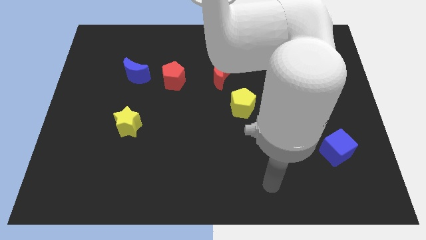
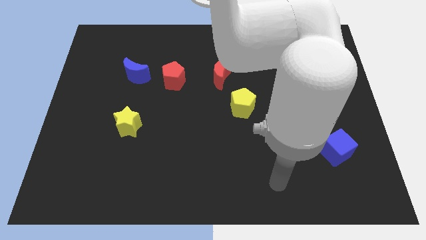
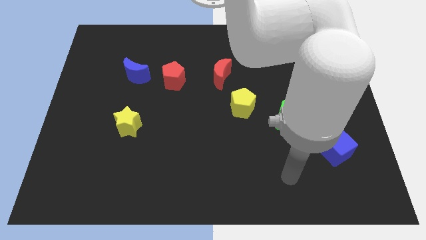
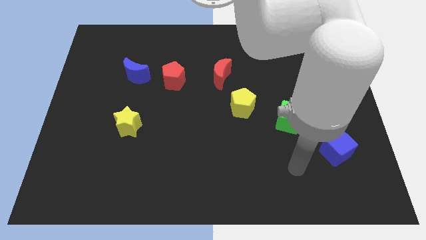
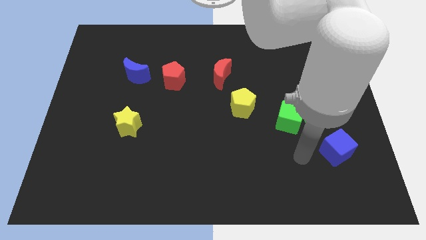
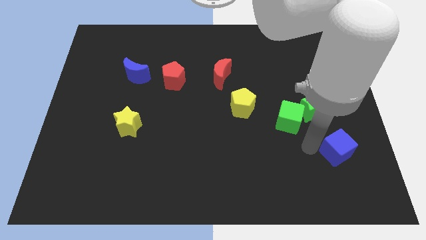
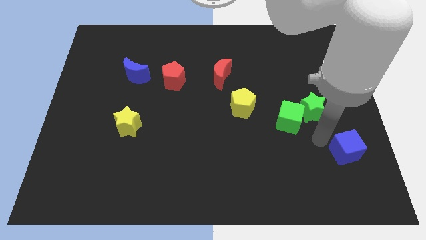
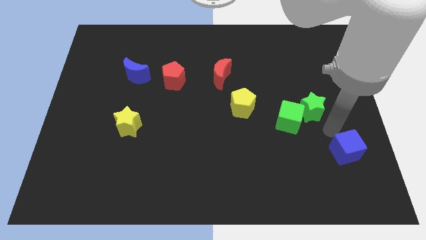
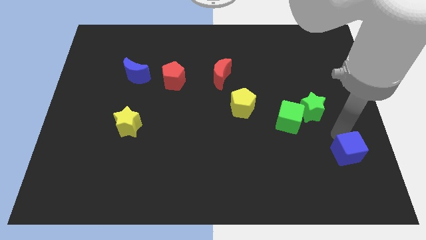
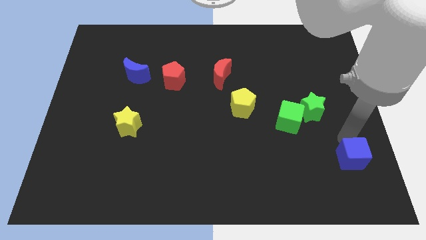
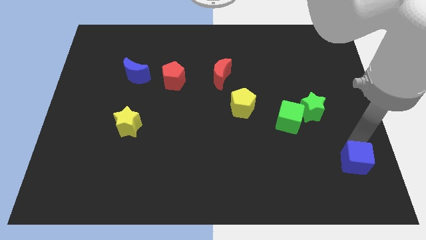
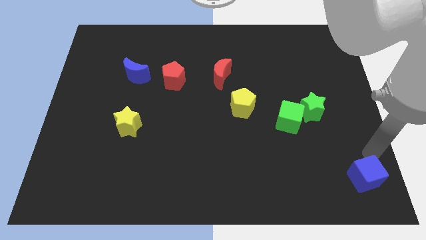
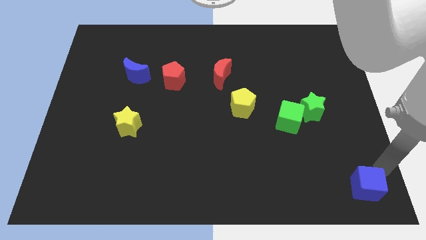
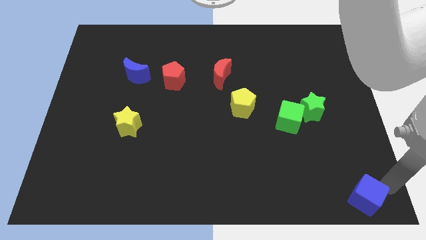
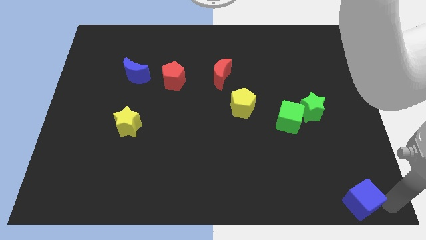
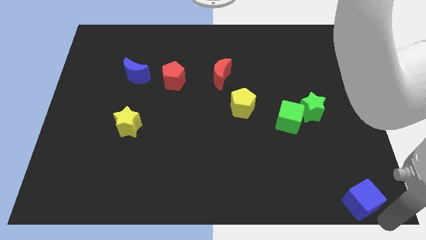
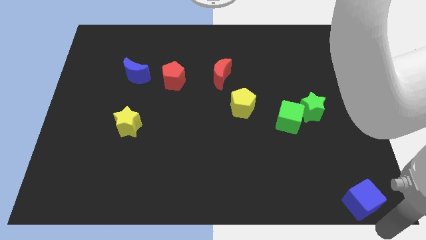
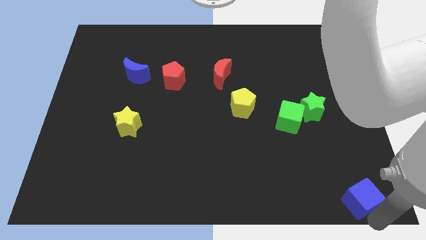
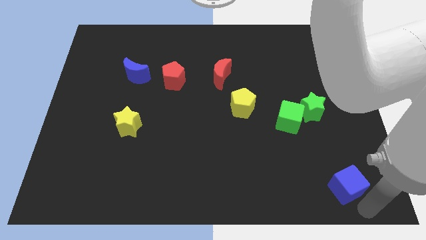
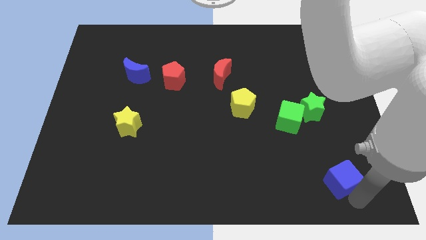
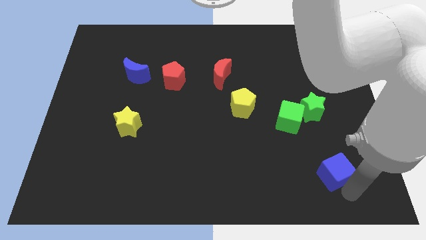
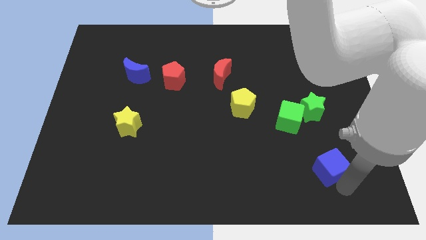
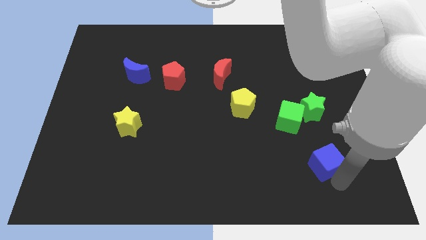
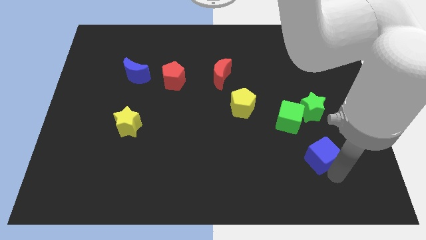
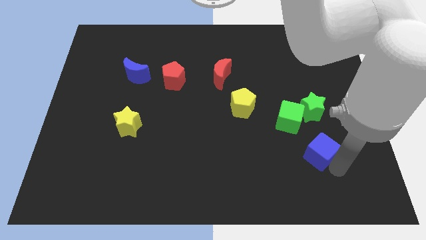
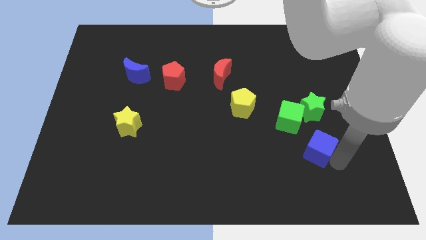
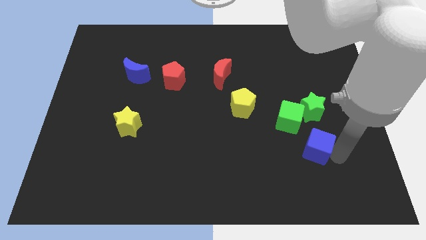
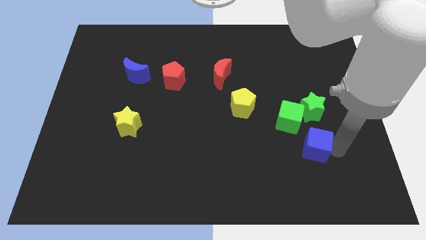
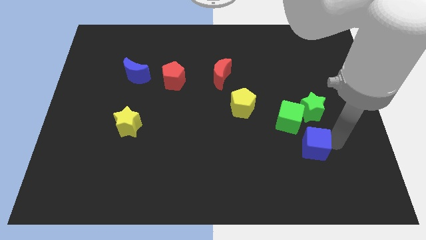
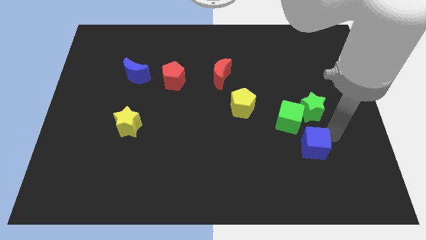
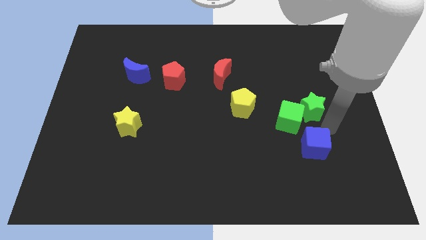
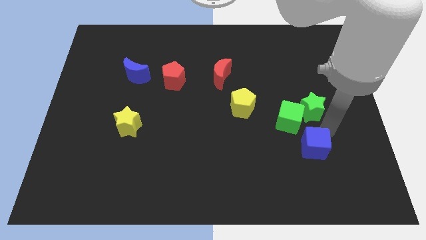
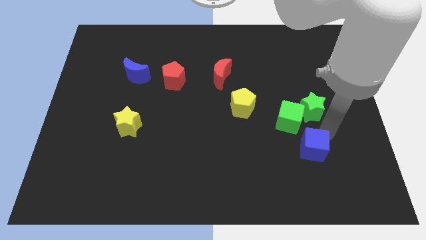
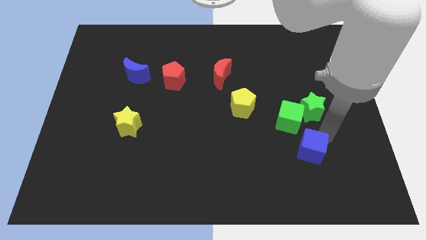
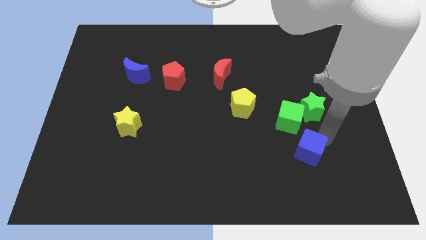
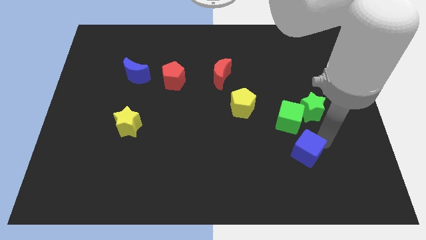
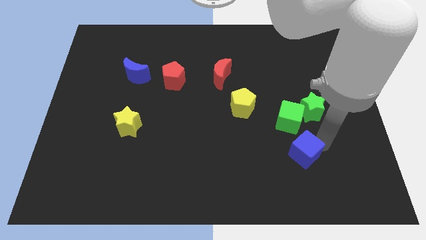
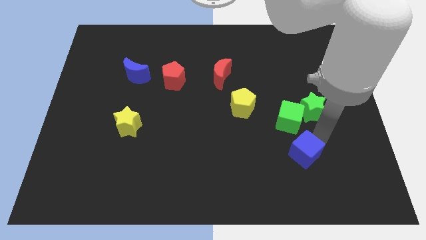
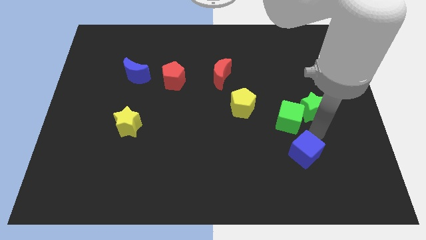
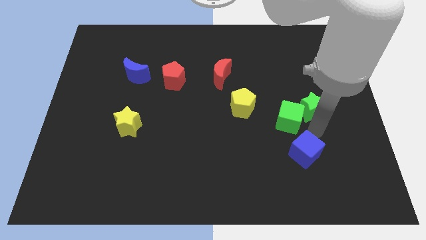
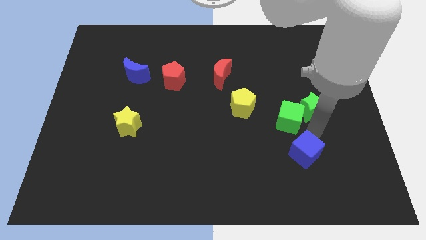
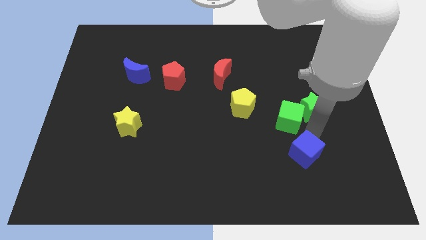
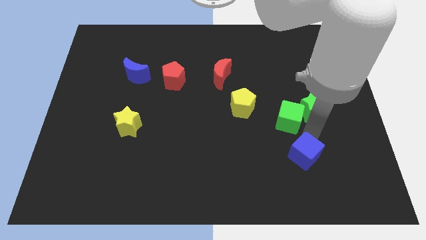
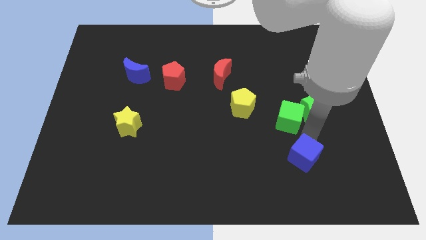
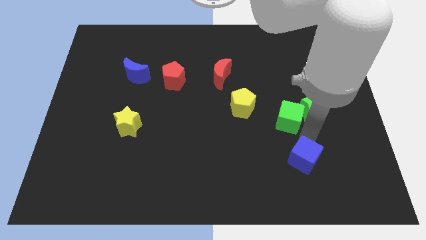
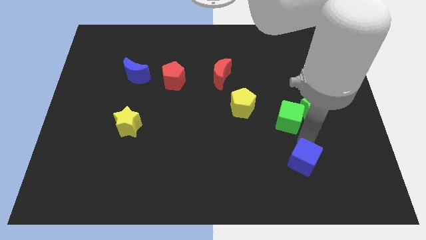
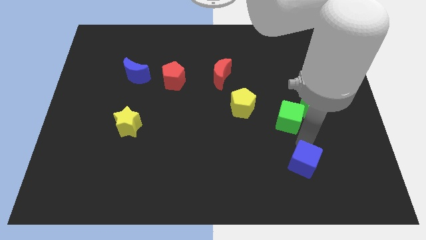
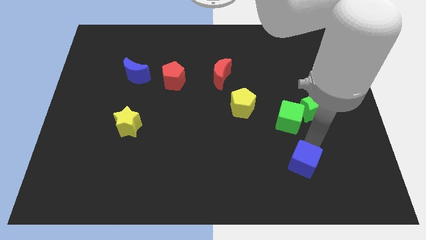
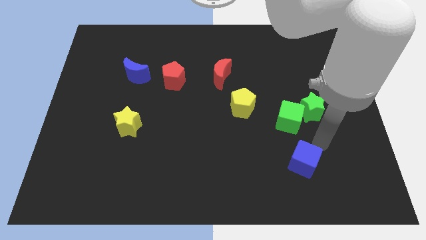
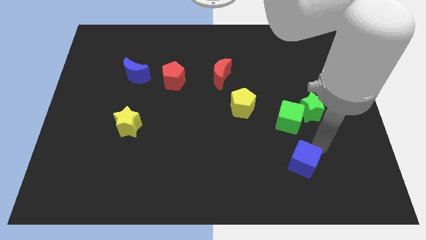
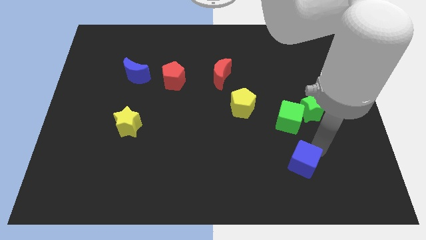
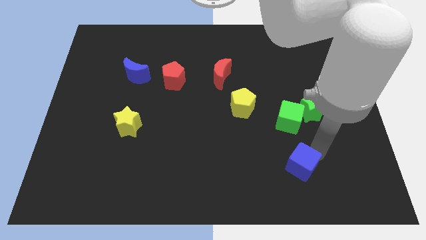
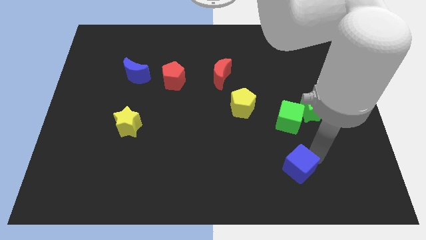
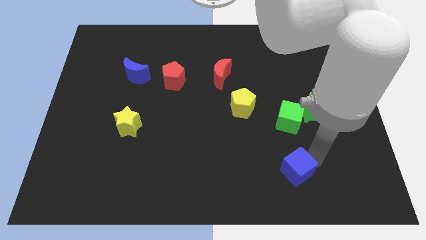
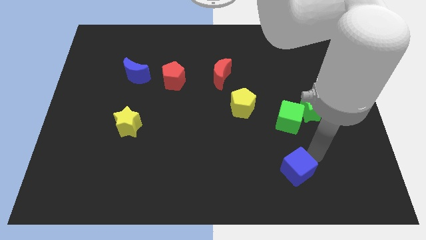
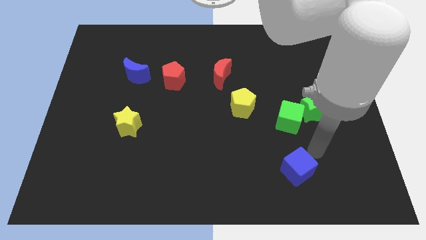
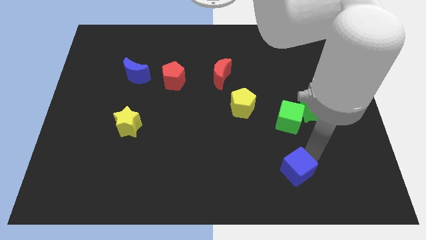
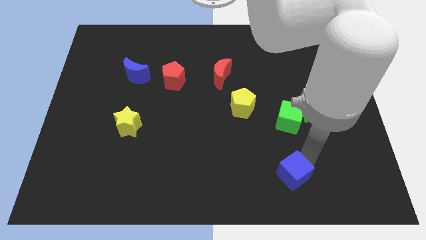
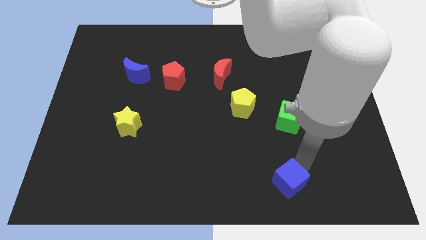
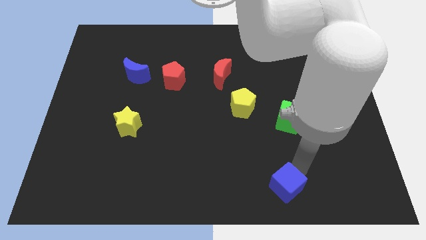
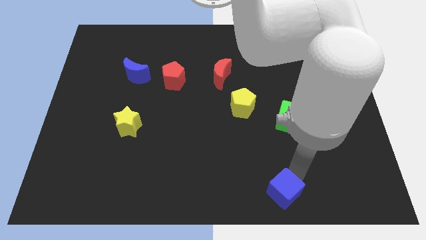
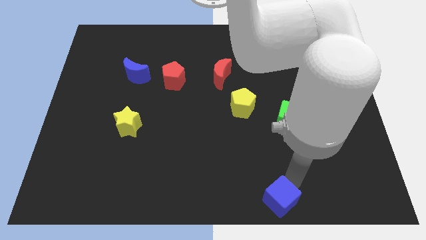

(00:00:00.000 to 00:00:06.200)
push the blue cube to the bottom
